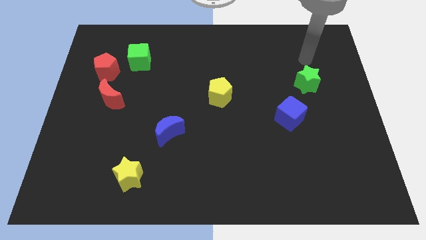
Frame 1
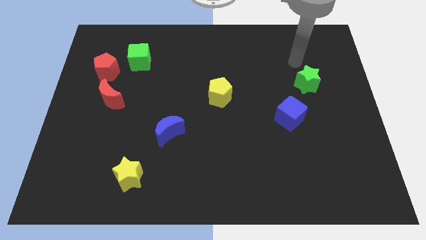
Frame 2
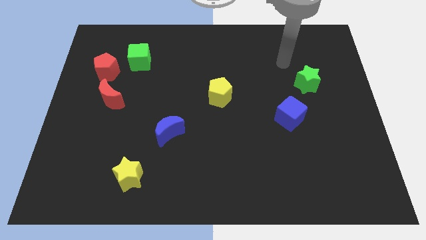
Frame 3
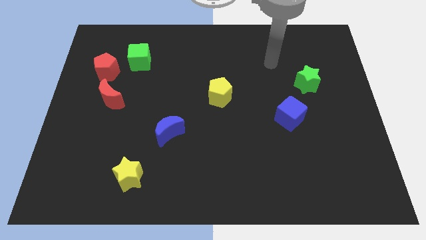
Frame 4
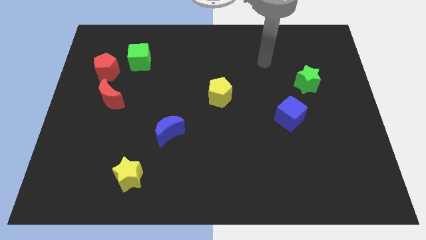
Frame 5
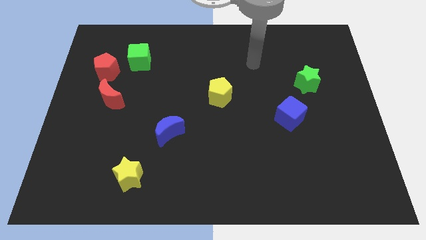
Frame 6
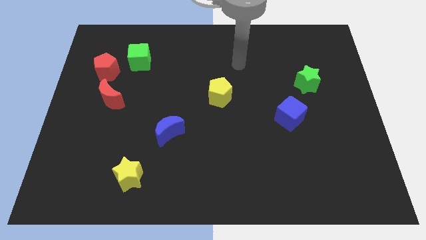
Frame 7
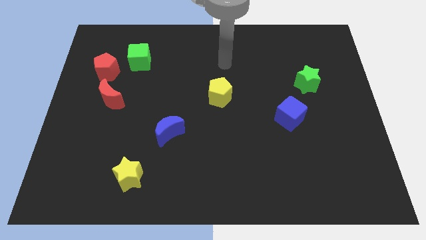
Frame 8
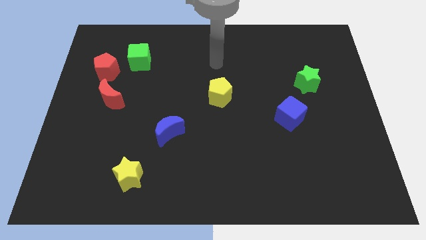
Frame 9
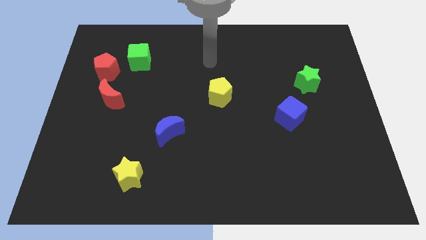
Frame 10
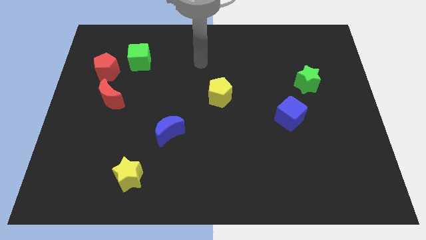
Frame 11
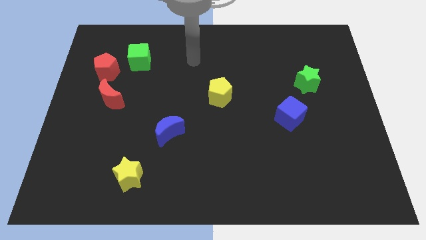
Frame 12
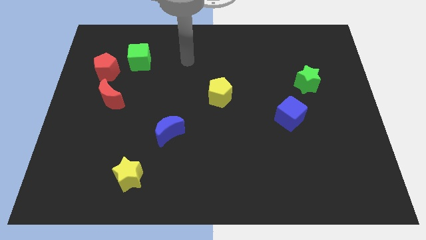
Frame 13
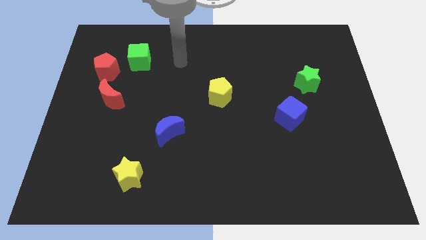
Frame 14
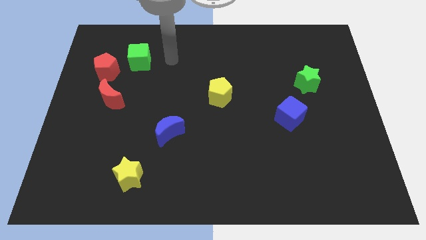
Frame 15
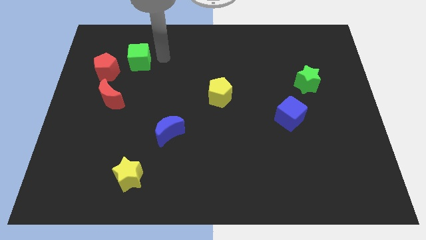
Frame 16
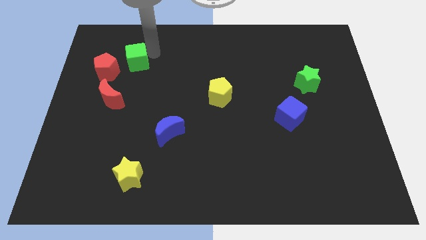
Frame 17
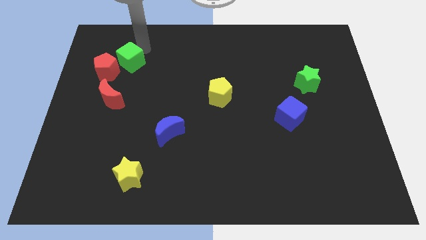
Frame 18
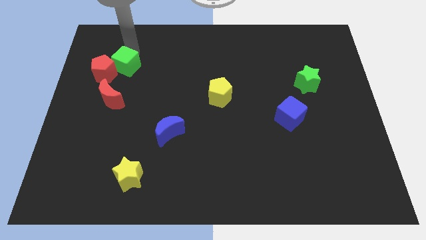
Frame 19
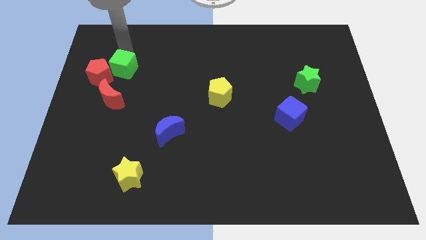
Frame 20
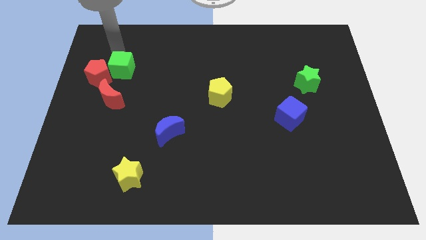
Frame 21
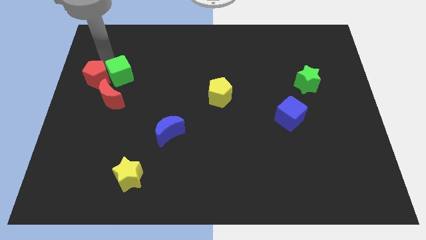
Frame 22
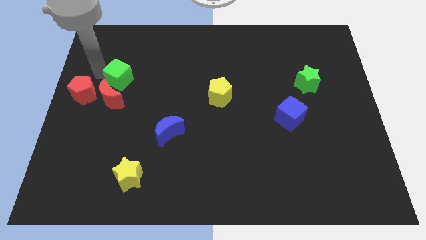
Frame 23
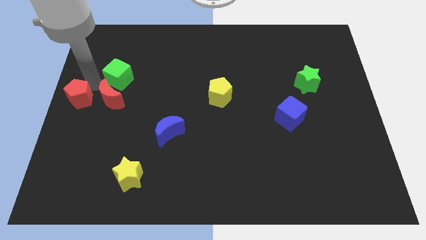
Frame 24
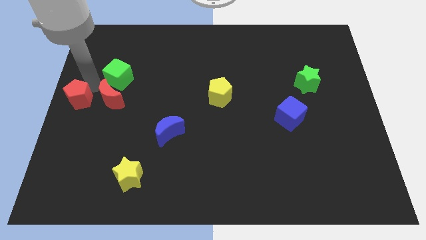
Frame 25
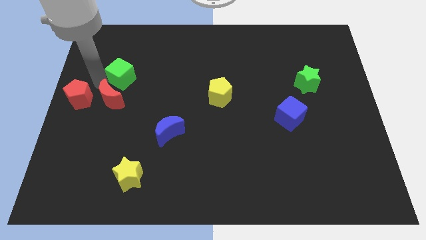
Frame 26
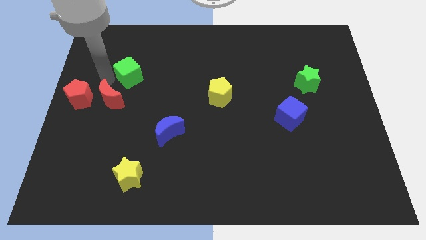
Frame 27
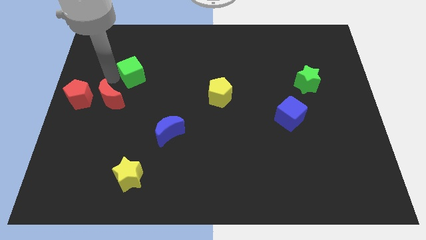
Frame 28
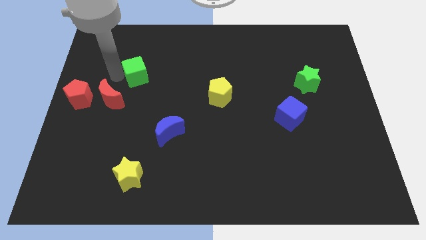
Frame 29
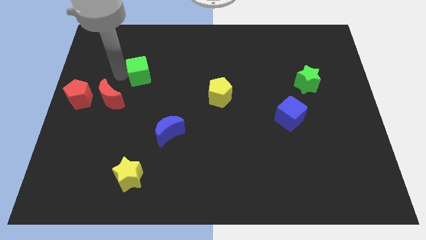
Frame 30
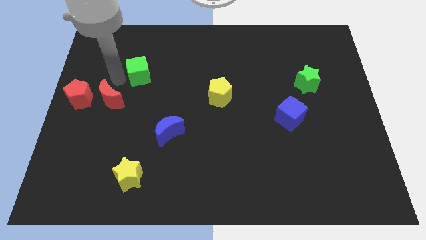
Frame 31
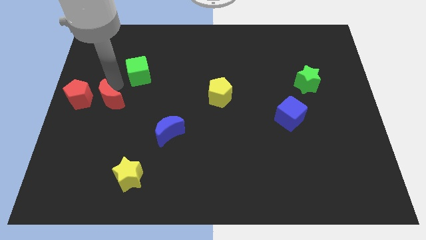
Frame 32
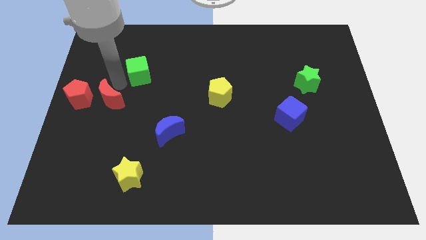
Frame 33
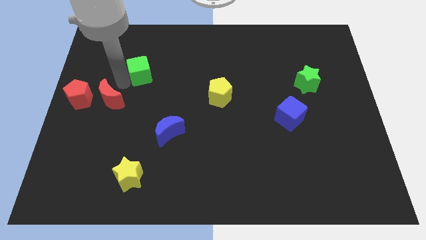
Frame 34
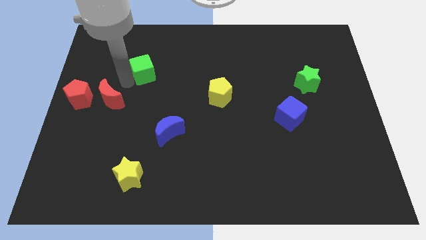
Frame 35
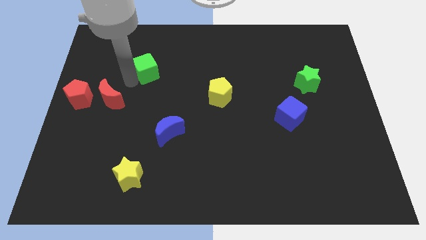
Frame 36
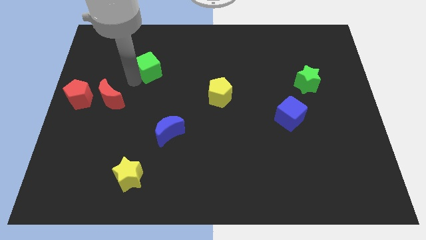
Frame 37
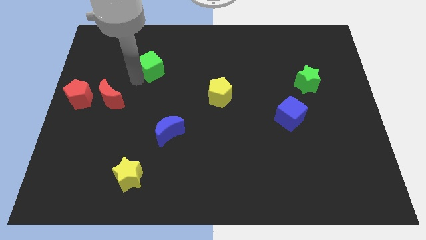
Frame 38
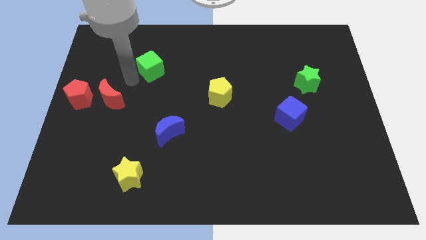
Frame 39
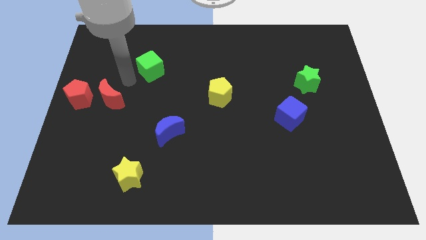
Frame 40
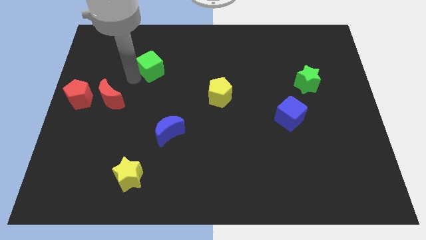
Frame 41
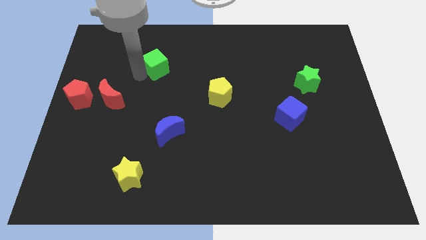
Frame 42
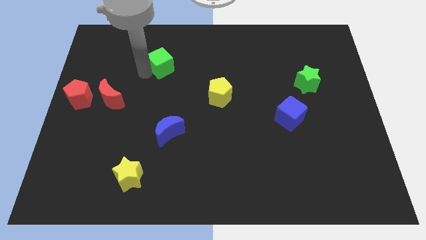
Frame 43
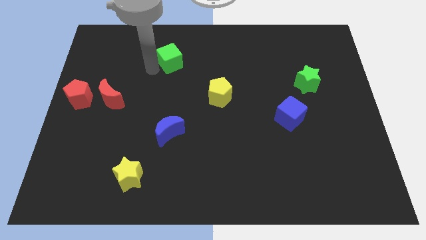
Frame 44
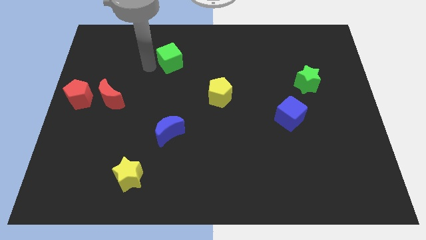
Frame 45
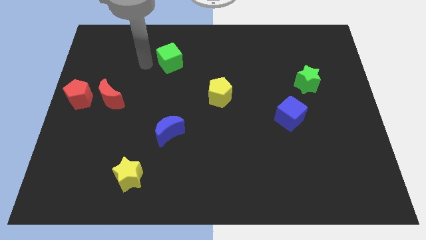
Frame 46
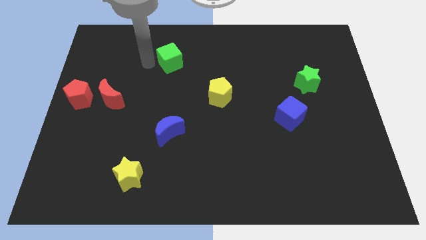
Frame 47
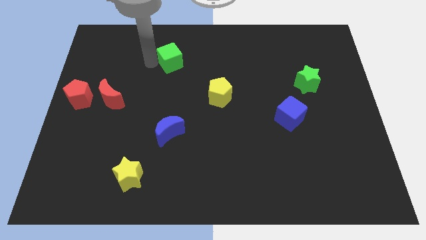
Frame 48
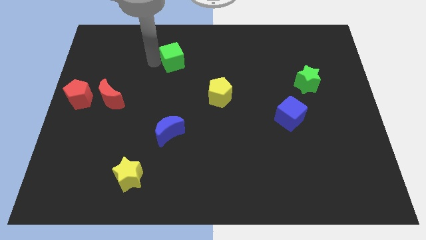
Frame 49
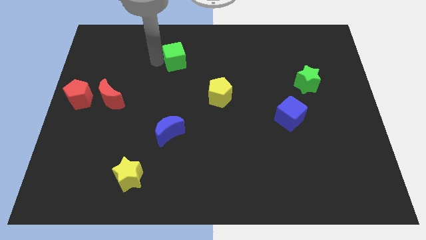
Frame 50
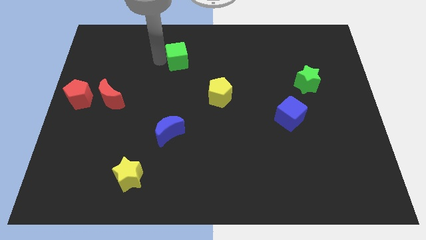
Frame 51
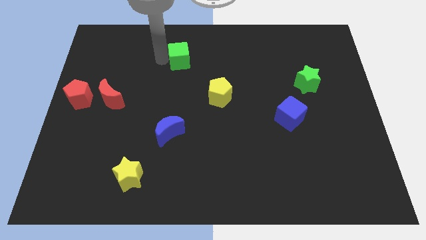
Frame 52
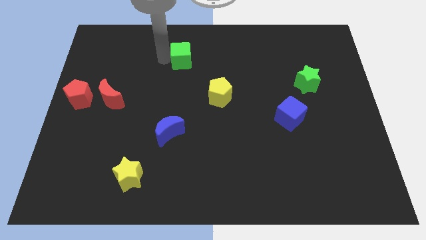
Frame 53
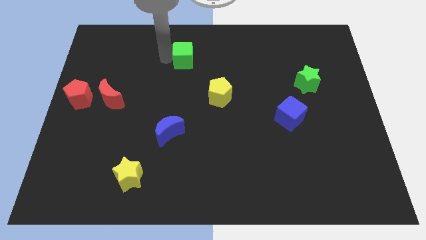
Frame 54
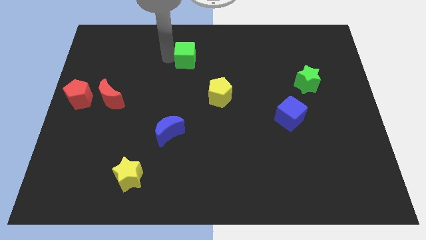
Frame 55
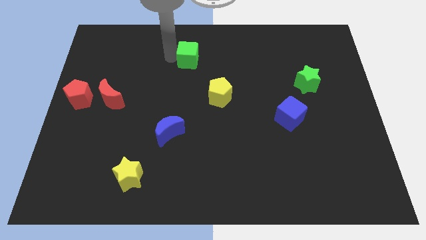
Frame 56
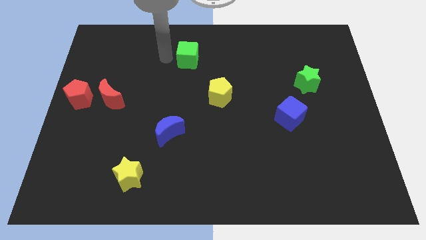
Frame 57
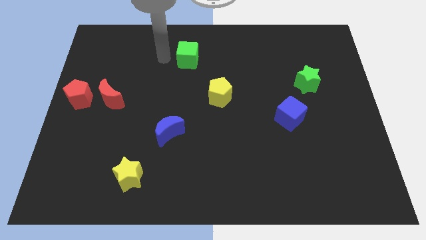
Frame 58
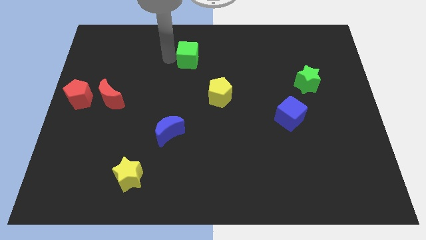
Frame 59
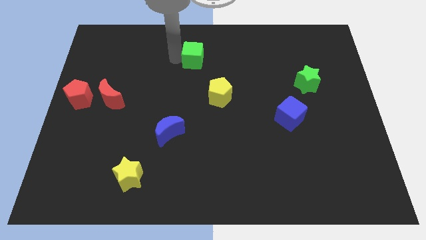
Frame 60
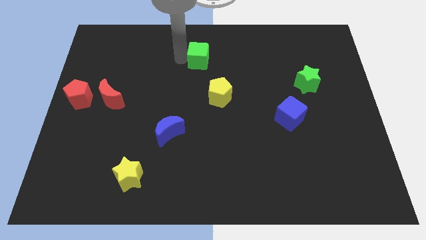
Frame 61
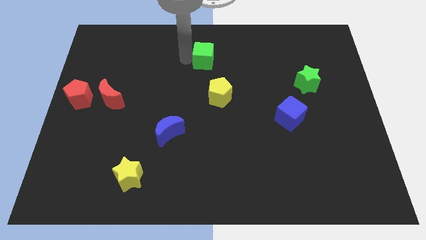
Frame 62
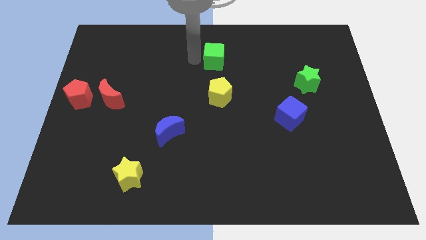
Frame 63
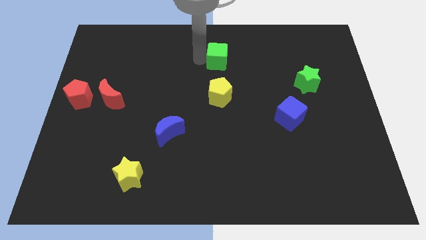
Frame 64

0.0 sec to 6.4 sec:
push the green cube right

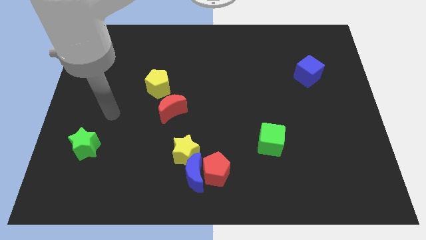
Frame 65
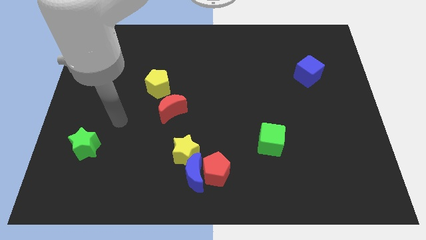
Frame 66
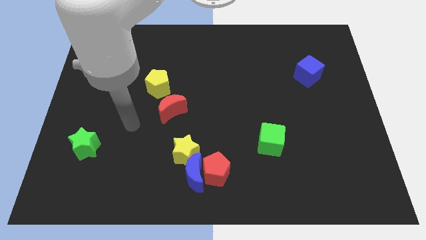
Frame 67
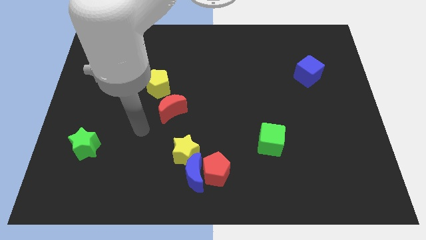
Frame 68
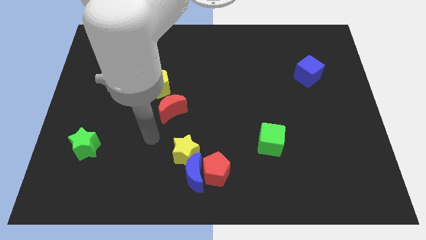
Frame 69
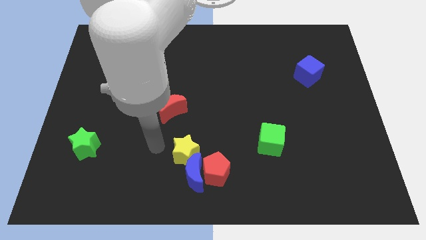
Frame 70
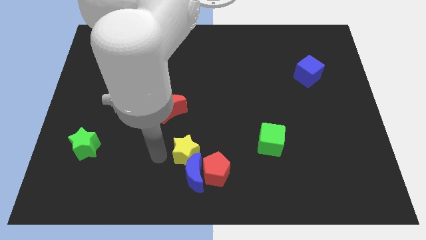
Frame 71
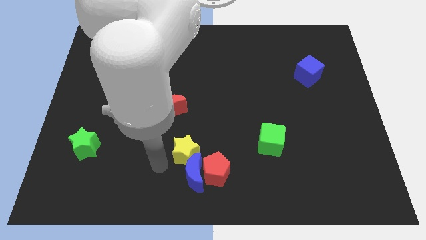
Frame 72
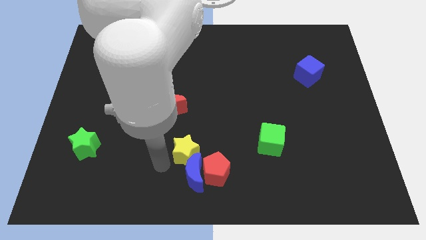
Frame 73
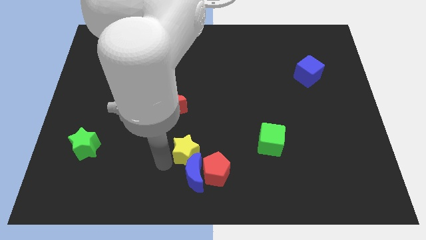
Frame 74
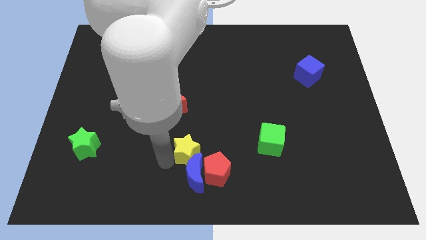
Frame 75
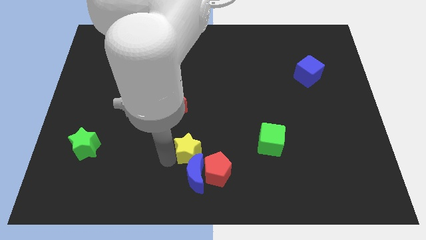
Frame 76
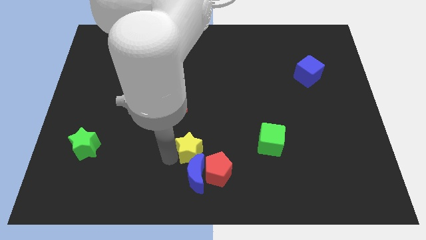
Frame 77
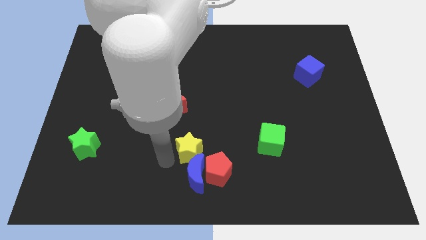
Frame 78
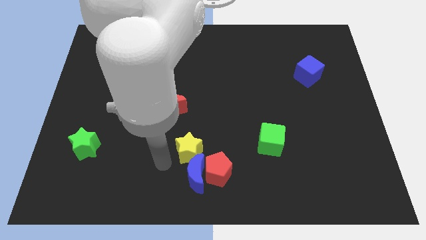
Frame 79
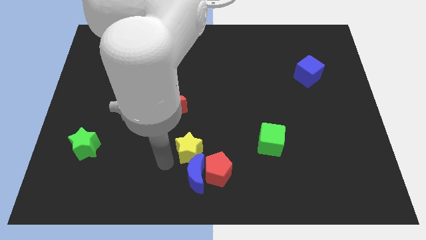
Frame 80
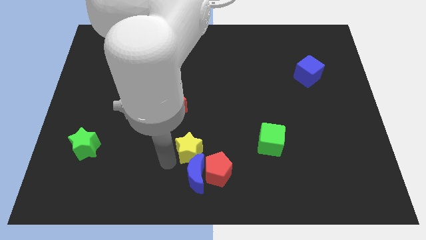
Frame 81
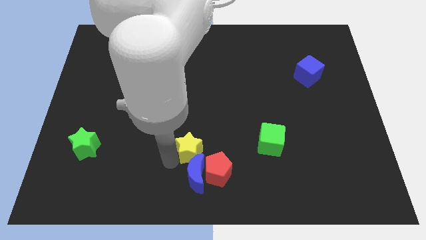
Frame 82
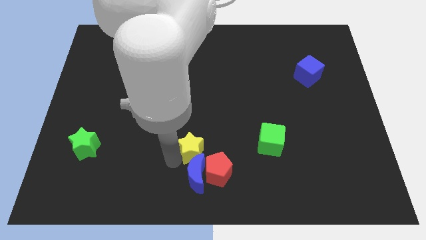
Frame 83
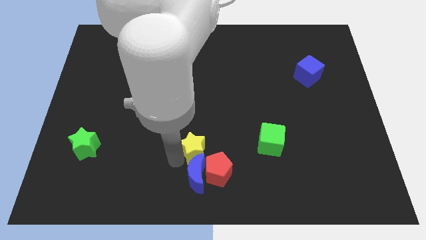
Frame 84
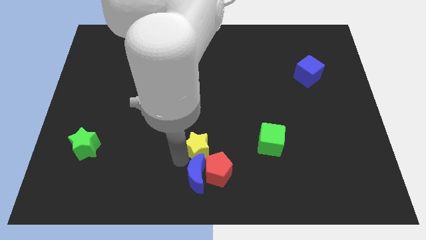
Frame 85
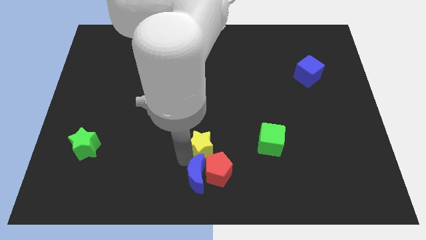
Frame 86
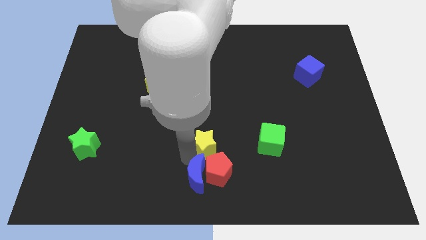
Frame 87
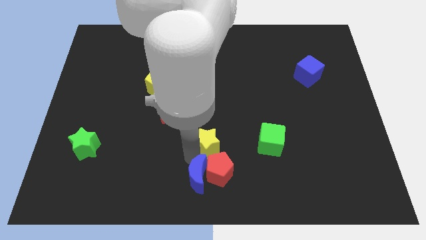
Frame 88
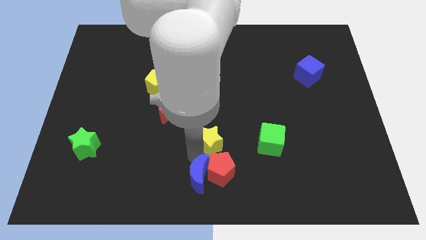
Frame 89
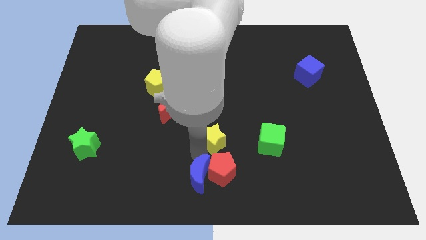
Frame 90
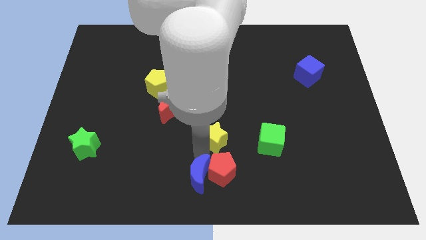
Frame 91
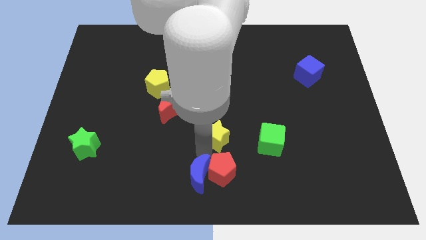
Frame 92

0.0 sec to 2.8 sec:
move the yellow star up and to the right diagonally a little bit
